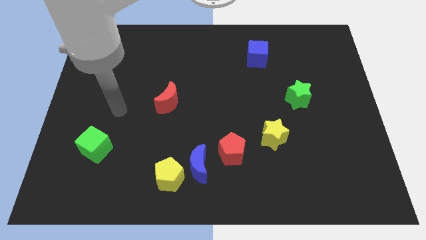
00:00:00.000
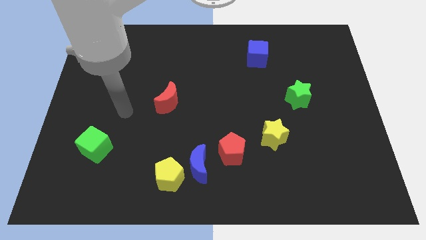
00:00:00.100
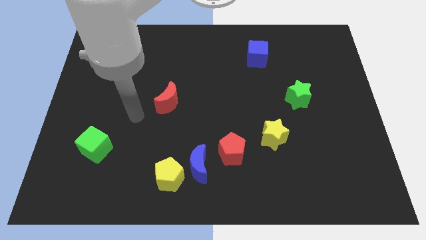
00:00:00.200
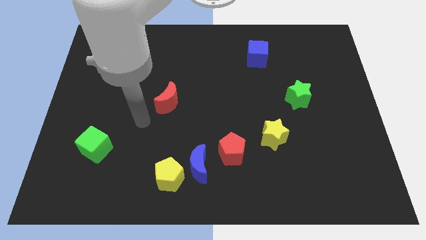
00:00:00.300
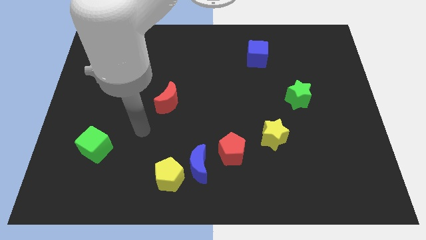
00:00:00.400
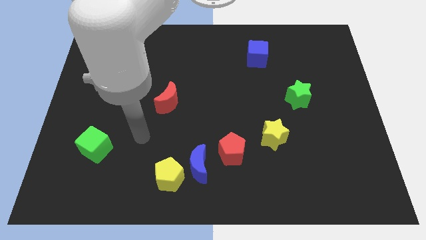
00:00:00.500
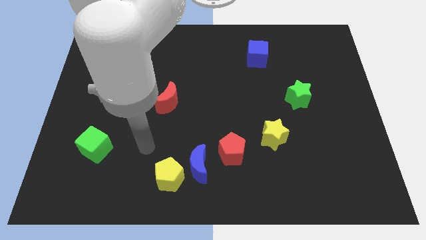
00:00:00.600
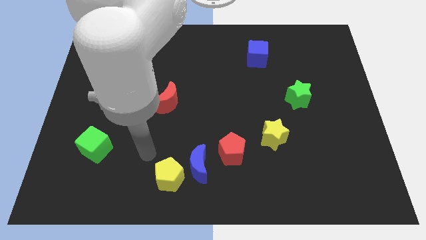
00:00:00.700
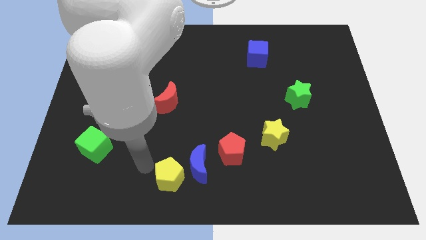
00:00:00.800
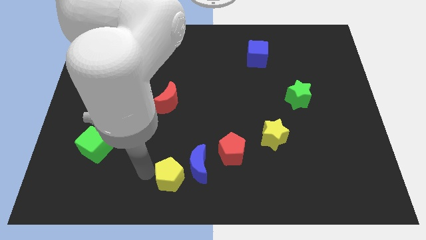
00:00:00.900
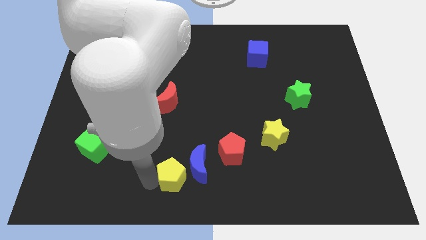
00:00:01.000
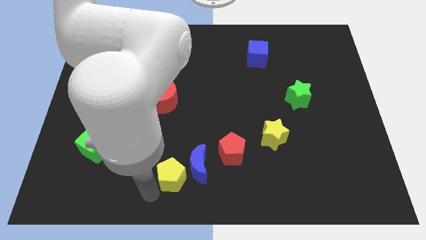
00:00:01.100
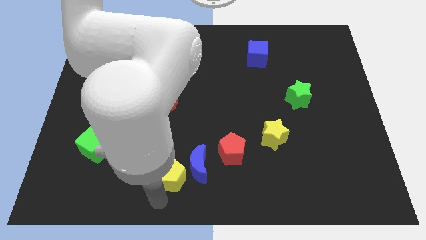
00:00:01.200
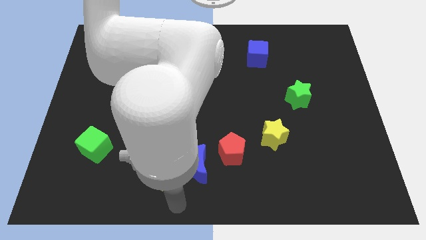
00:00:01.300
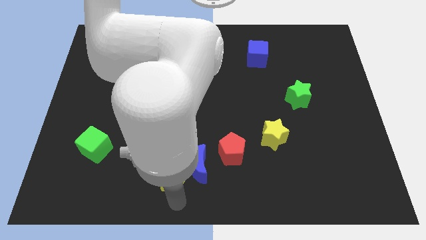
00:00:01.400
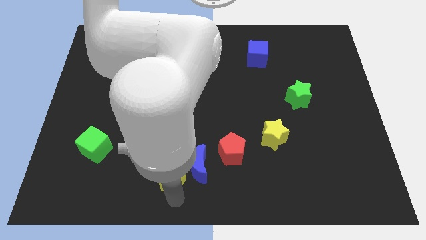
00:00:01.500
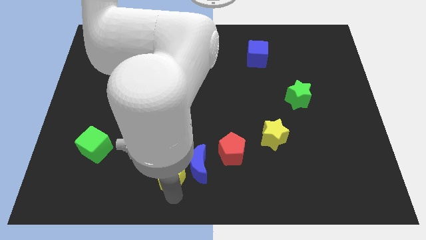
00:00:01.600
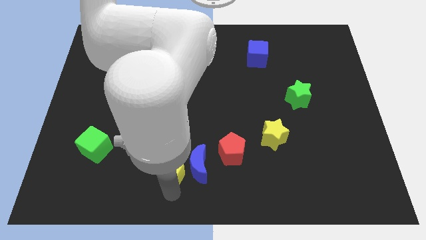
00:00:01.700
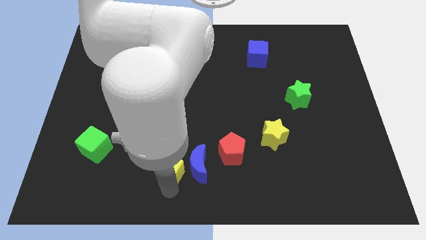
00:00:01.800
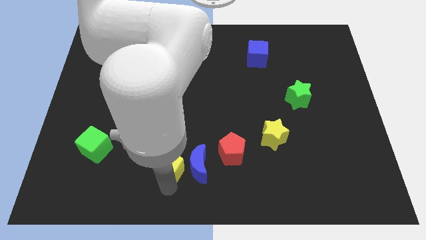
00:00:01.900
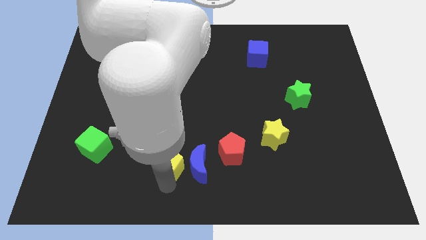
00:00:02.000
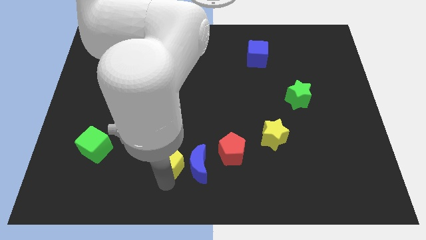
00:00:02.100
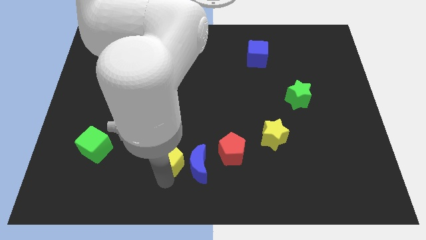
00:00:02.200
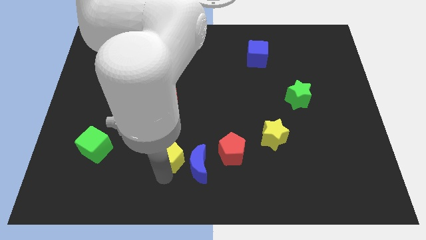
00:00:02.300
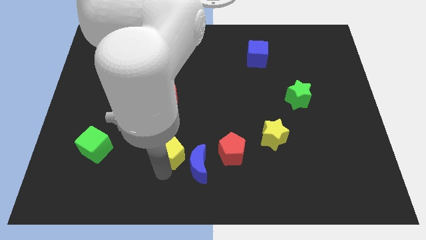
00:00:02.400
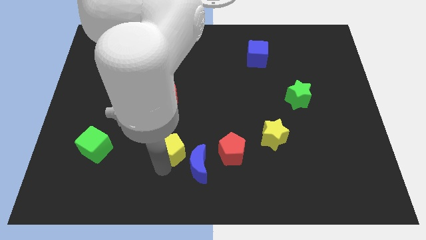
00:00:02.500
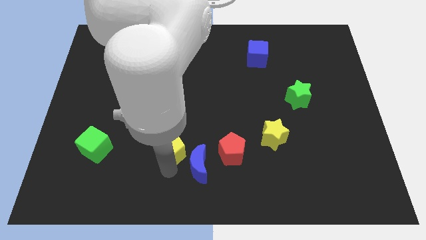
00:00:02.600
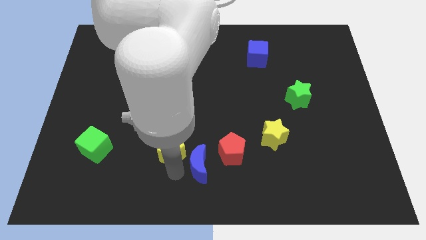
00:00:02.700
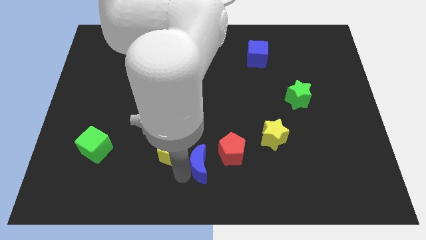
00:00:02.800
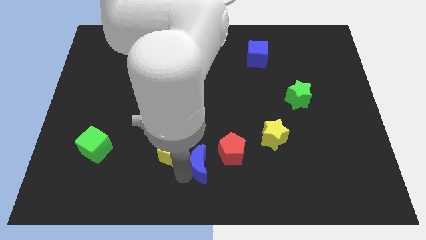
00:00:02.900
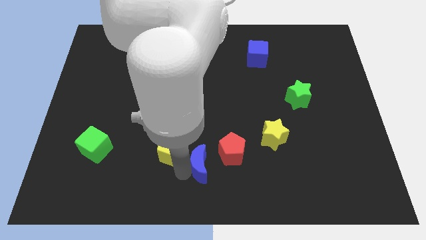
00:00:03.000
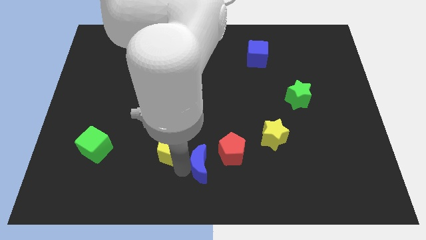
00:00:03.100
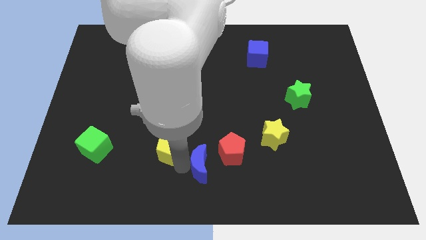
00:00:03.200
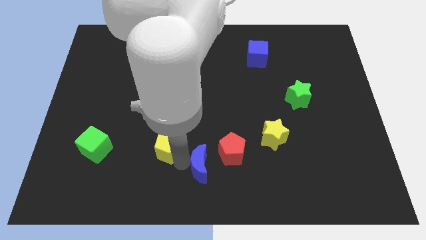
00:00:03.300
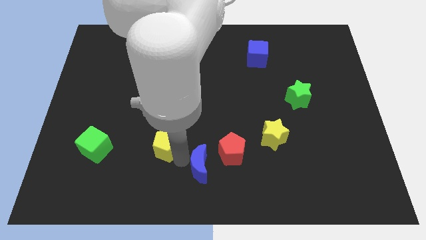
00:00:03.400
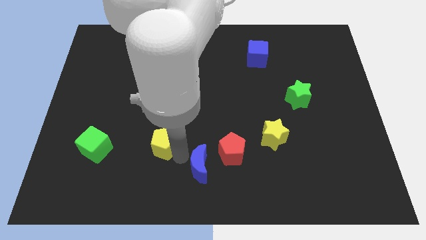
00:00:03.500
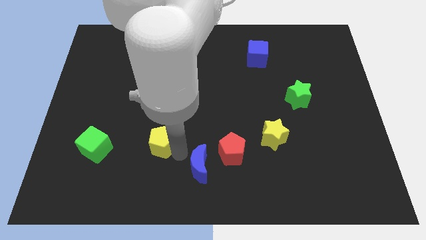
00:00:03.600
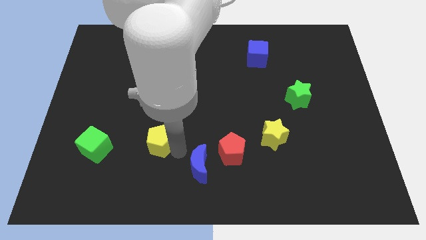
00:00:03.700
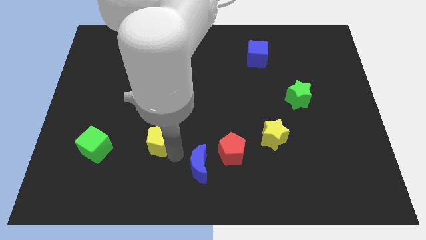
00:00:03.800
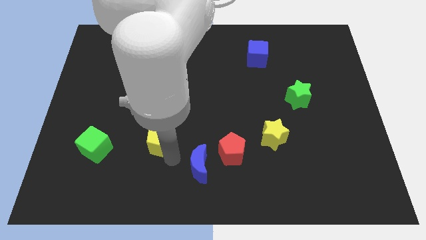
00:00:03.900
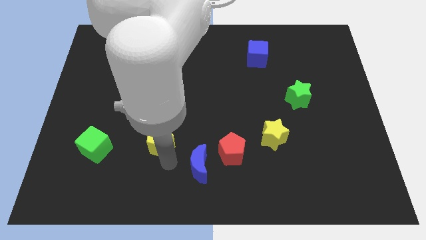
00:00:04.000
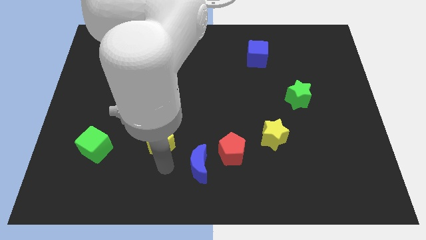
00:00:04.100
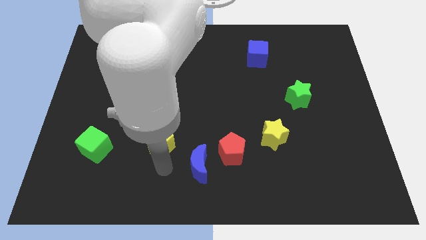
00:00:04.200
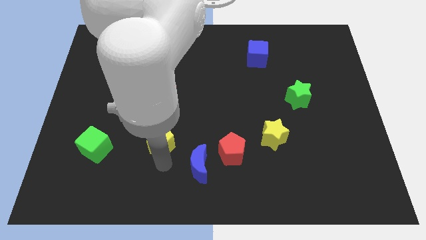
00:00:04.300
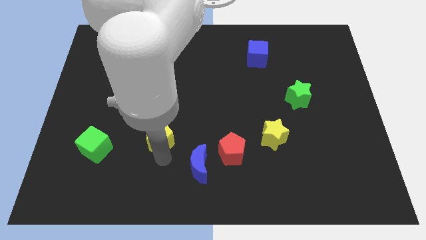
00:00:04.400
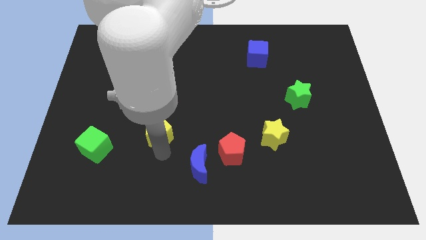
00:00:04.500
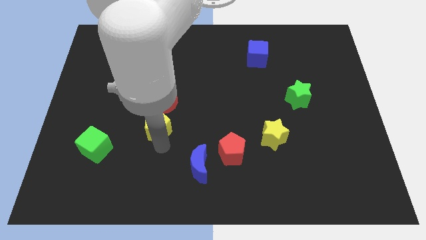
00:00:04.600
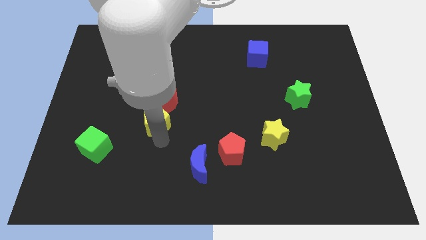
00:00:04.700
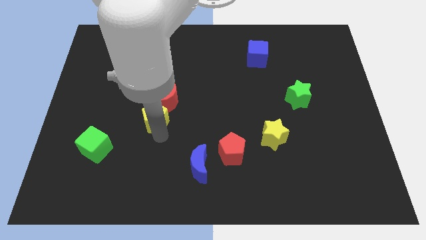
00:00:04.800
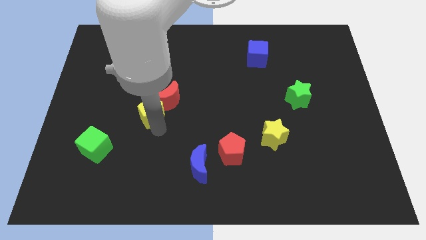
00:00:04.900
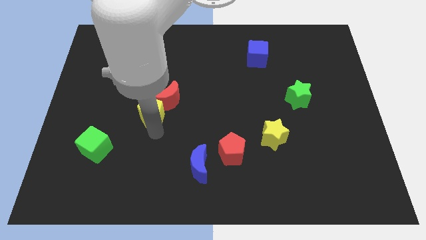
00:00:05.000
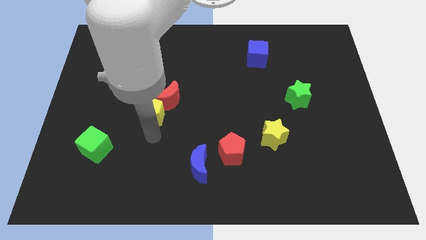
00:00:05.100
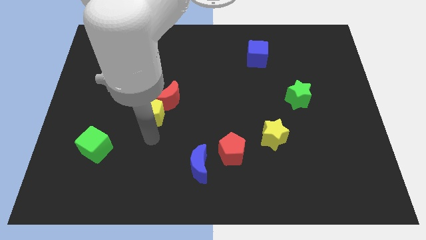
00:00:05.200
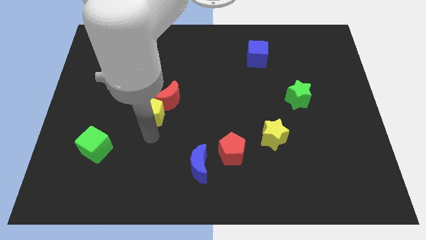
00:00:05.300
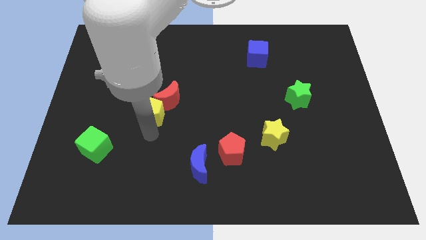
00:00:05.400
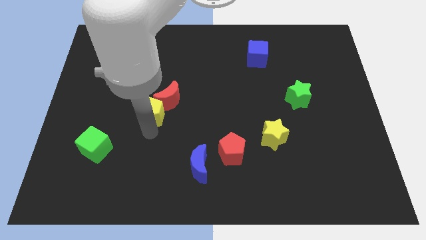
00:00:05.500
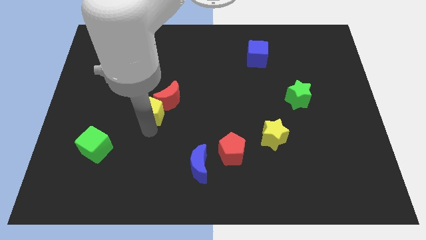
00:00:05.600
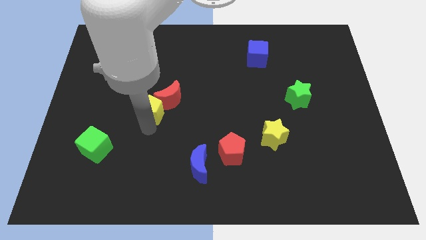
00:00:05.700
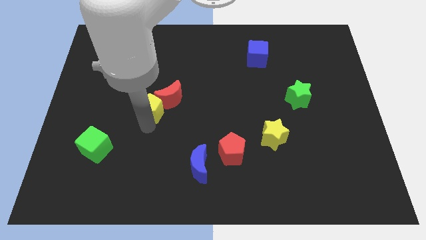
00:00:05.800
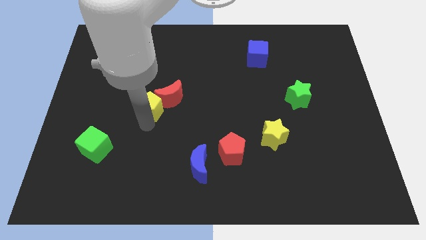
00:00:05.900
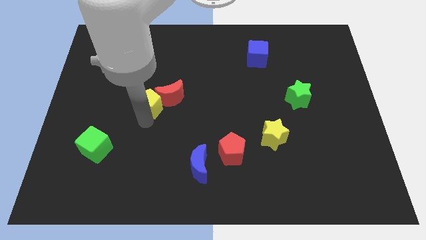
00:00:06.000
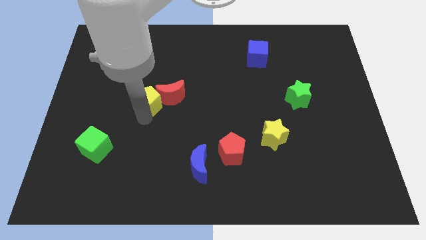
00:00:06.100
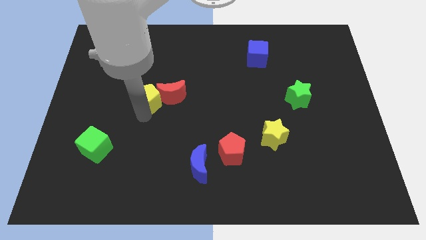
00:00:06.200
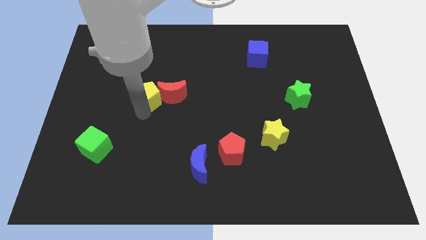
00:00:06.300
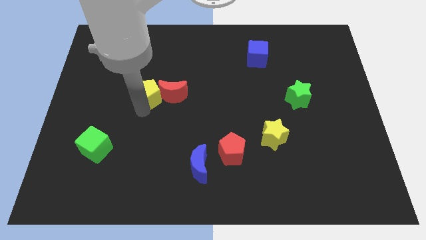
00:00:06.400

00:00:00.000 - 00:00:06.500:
push the yellow pentagon up

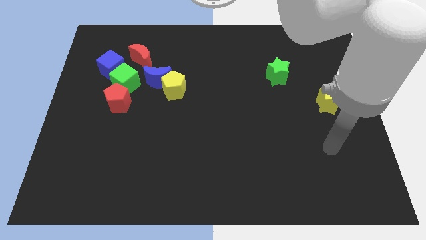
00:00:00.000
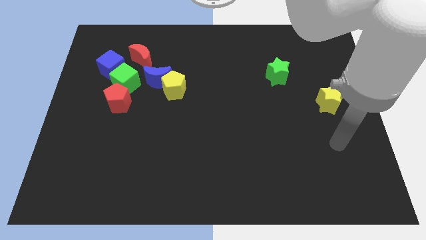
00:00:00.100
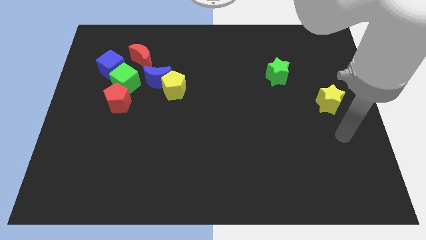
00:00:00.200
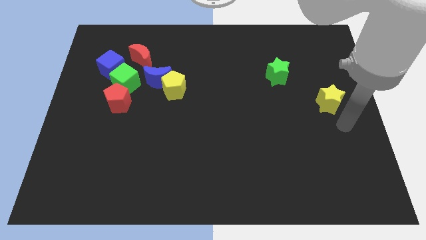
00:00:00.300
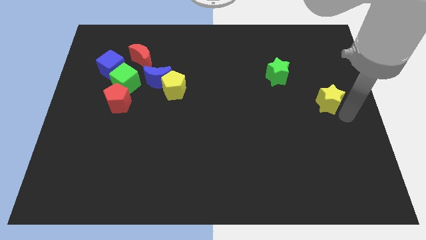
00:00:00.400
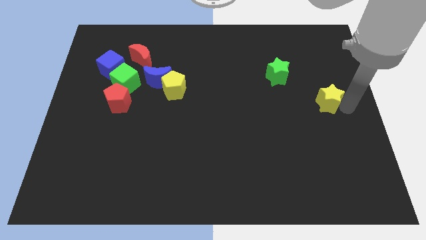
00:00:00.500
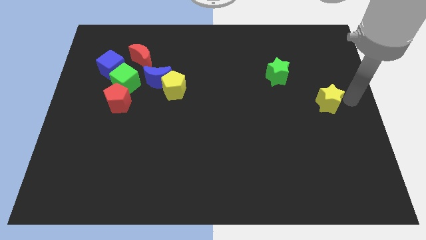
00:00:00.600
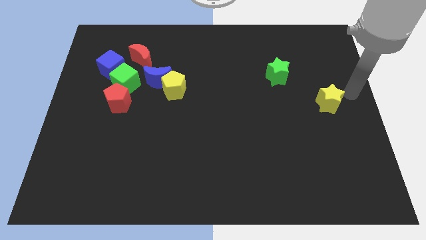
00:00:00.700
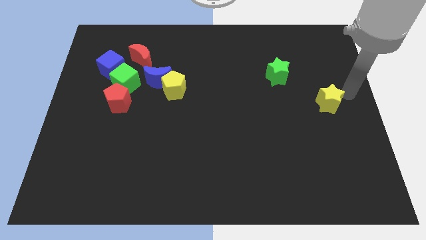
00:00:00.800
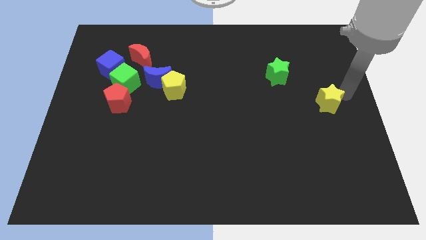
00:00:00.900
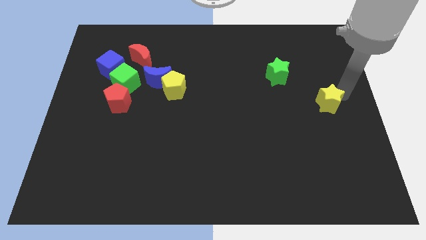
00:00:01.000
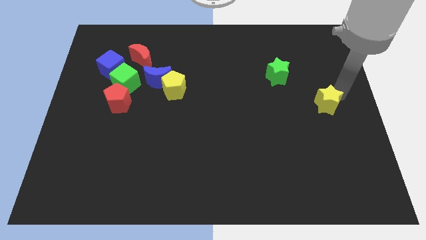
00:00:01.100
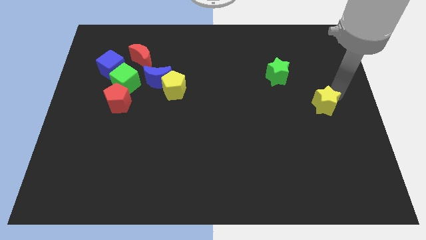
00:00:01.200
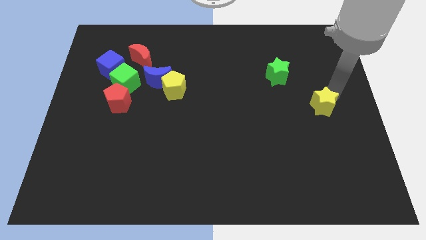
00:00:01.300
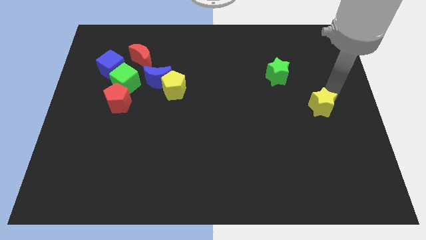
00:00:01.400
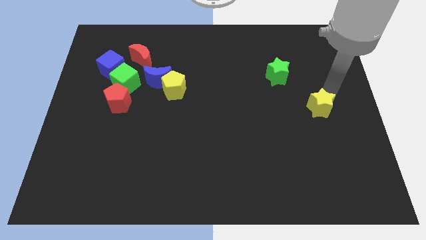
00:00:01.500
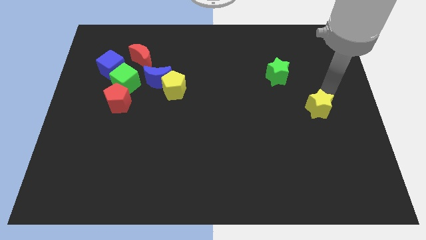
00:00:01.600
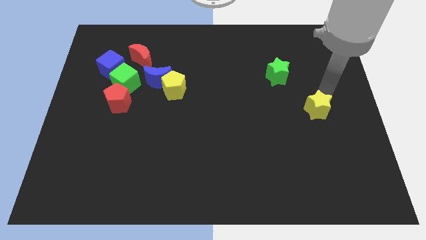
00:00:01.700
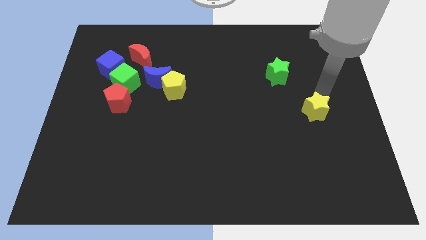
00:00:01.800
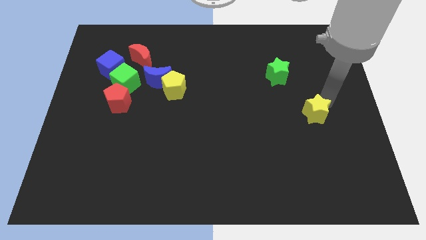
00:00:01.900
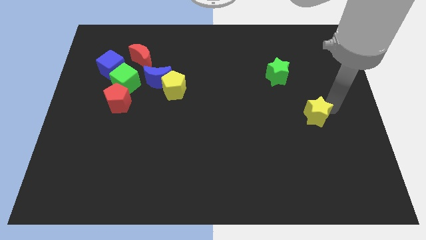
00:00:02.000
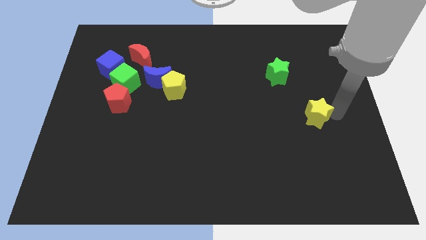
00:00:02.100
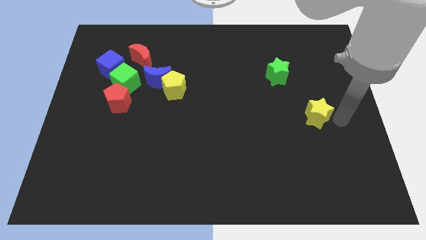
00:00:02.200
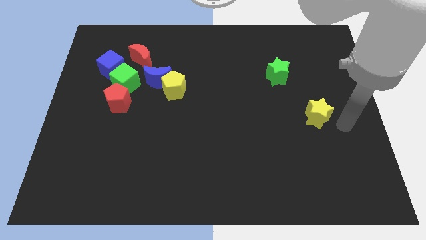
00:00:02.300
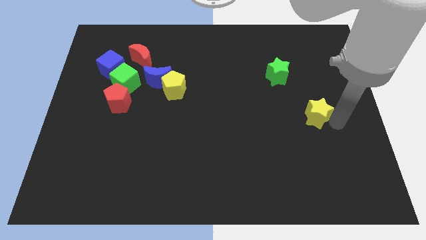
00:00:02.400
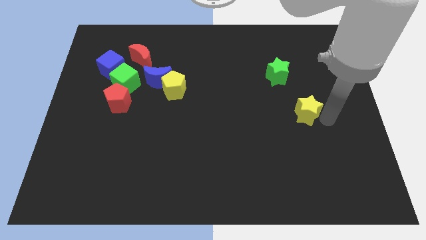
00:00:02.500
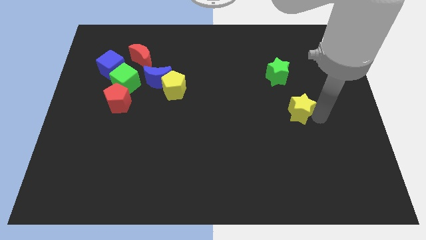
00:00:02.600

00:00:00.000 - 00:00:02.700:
move the yellow star somewhat left
